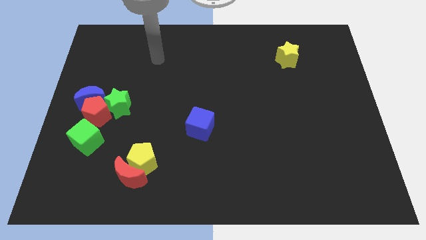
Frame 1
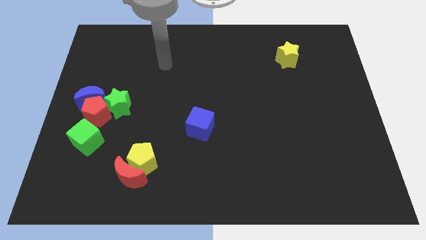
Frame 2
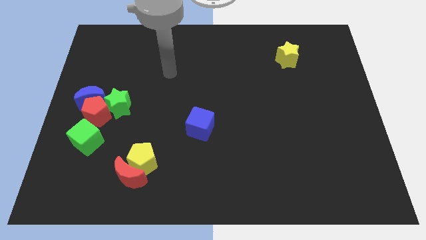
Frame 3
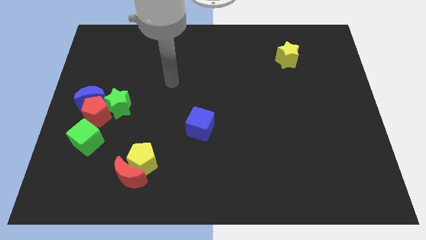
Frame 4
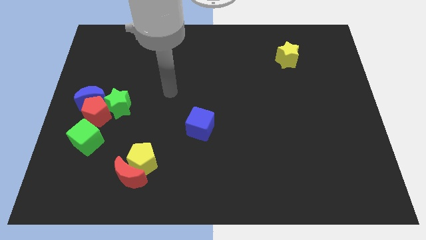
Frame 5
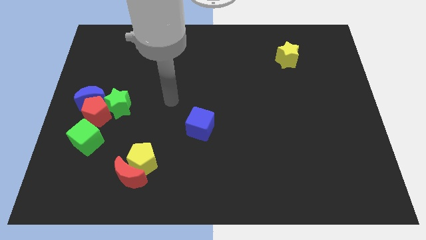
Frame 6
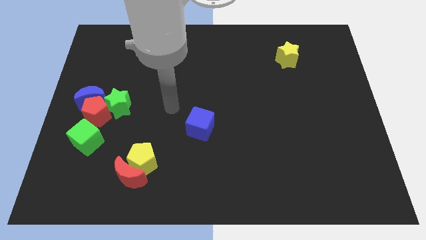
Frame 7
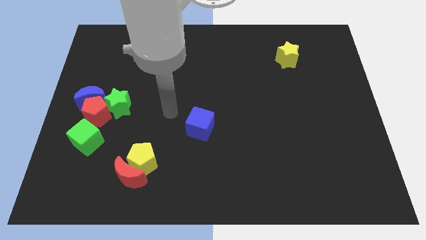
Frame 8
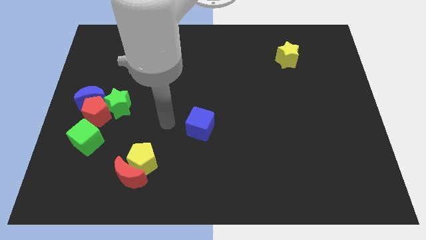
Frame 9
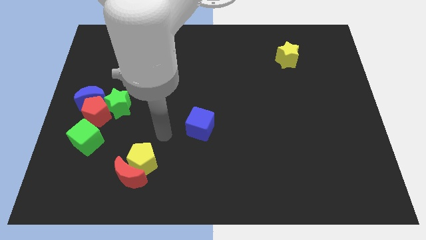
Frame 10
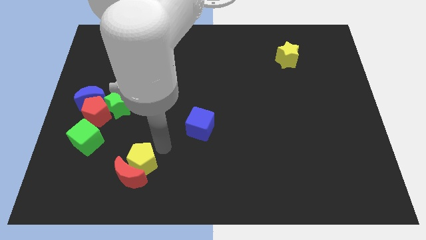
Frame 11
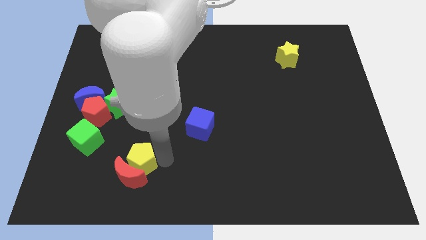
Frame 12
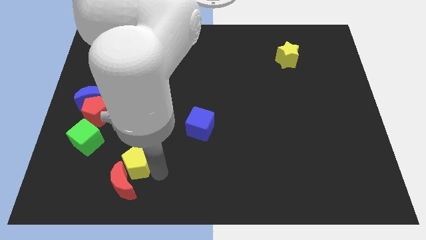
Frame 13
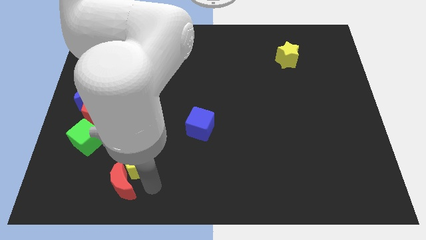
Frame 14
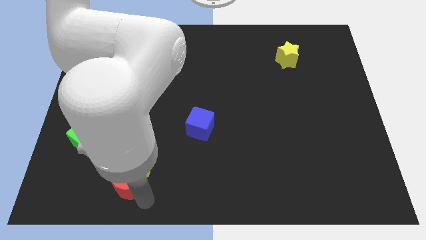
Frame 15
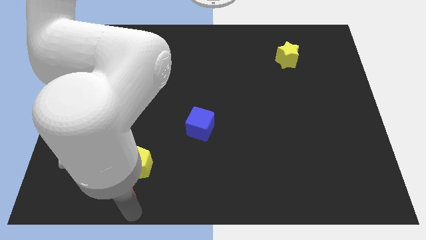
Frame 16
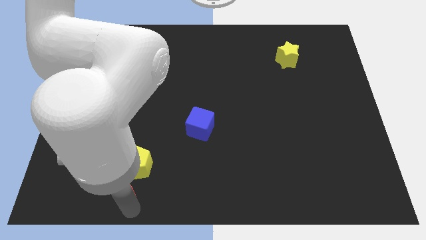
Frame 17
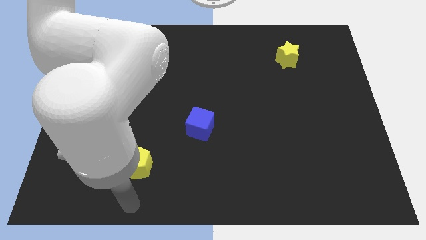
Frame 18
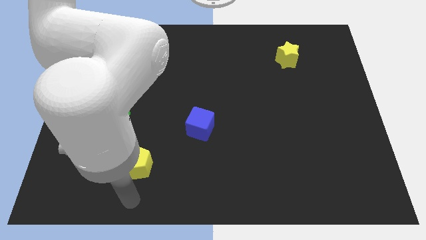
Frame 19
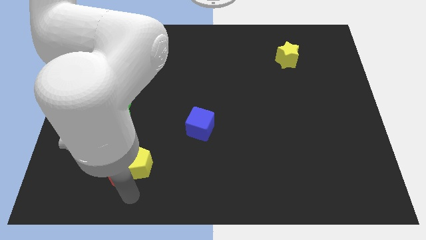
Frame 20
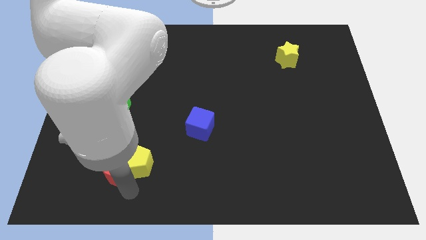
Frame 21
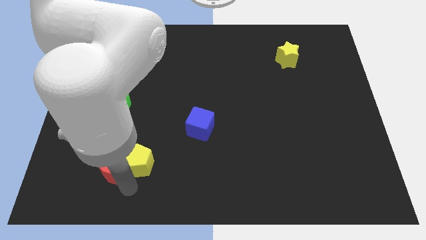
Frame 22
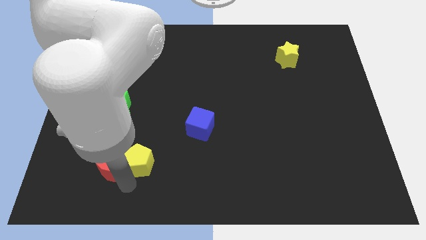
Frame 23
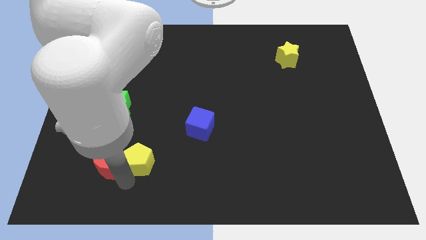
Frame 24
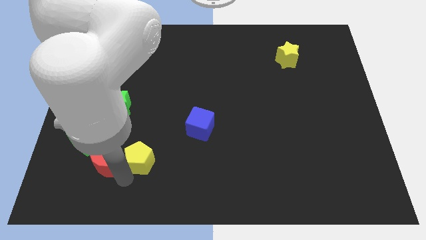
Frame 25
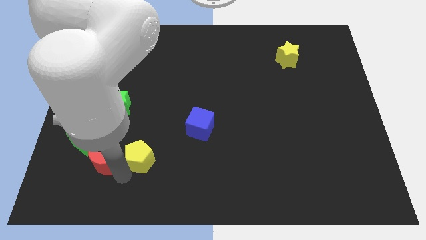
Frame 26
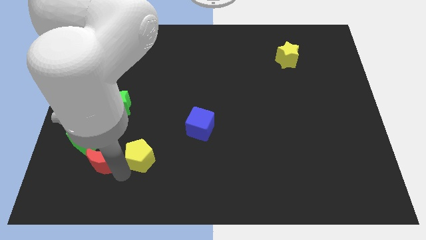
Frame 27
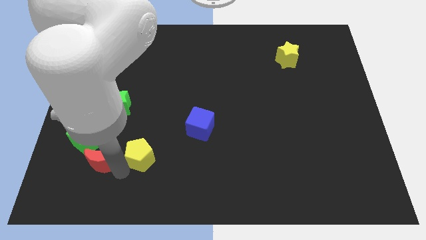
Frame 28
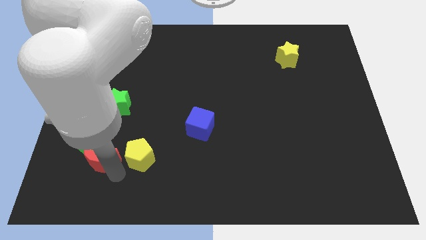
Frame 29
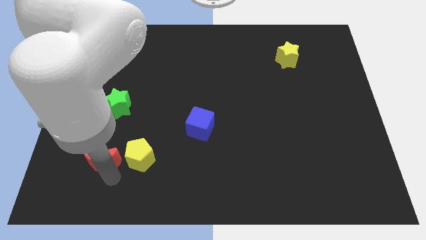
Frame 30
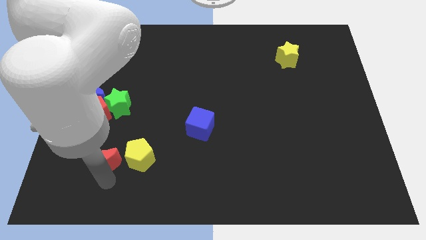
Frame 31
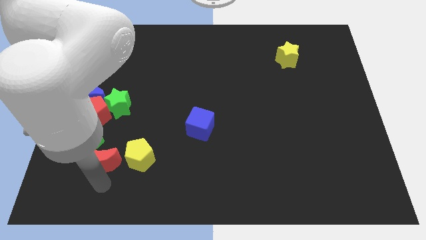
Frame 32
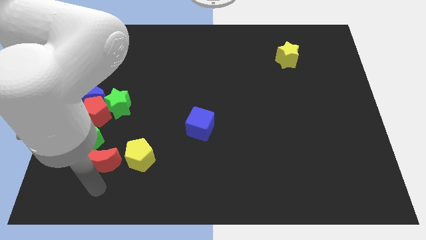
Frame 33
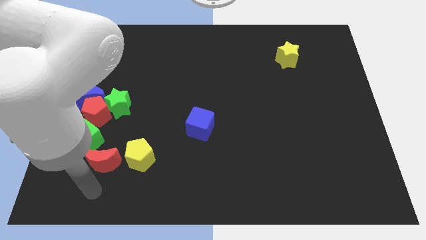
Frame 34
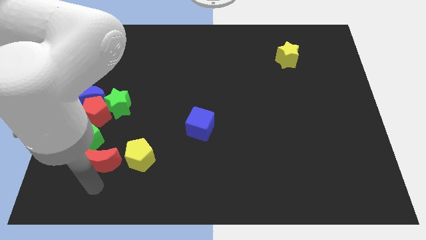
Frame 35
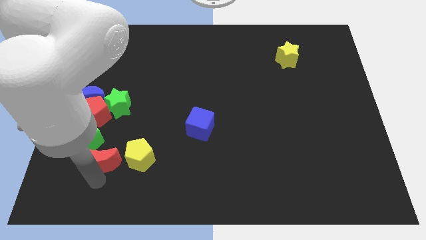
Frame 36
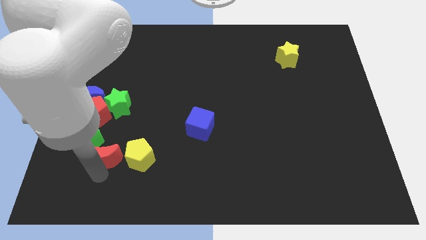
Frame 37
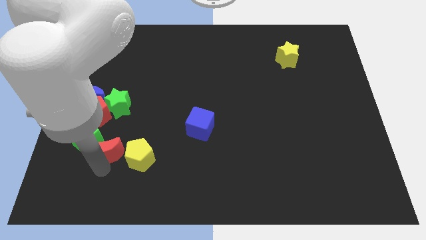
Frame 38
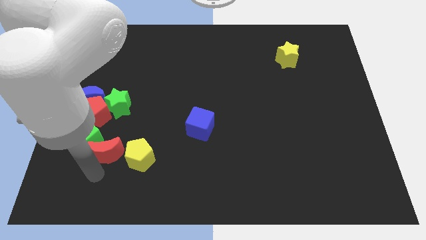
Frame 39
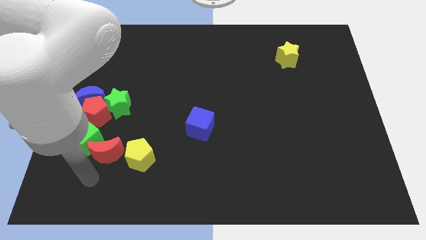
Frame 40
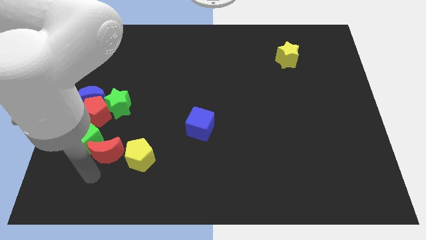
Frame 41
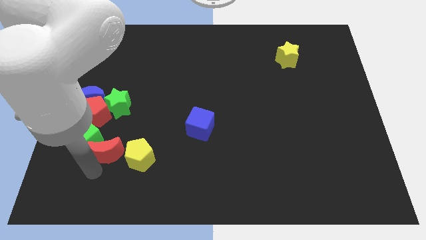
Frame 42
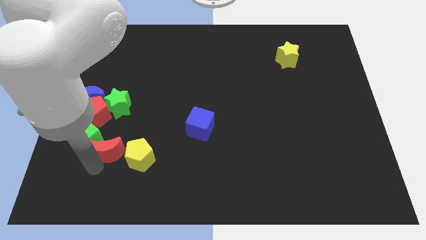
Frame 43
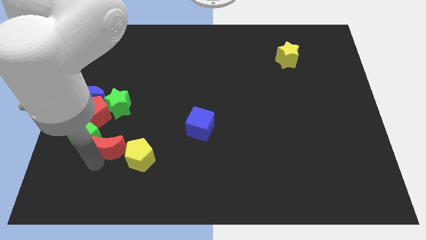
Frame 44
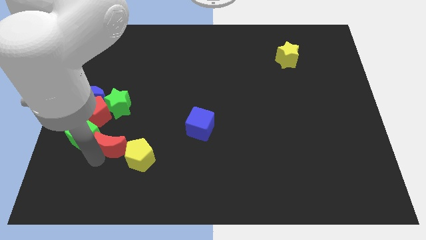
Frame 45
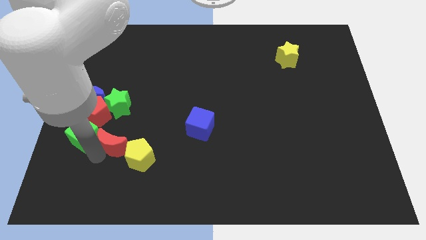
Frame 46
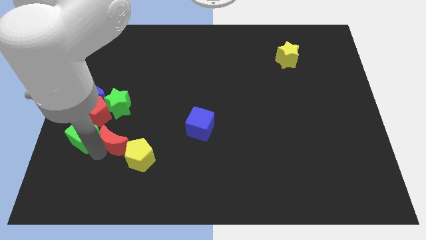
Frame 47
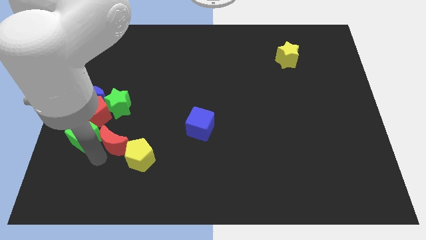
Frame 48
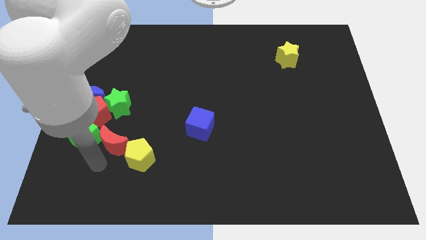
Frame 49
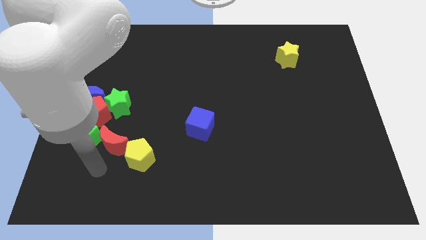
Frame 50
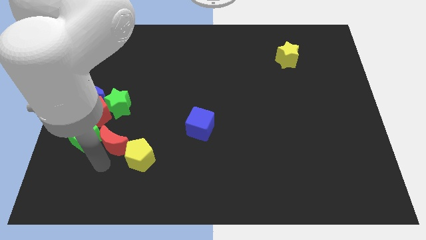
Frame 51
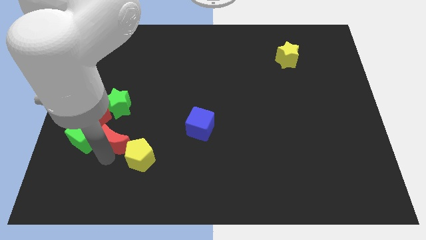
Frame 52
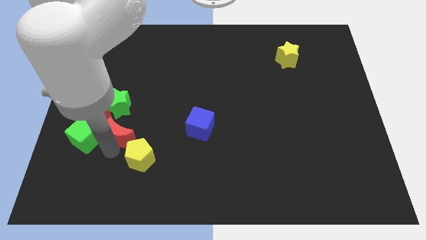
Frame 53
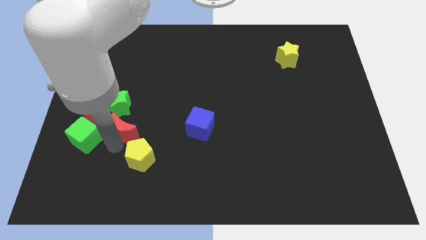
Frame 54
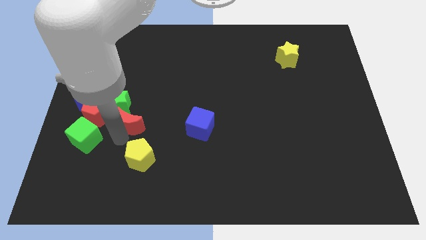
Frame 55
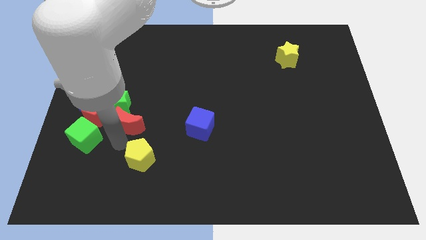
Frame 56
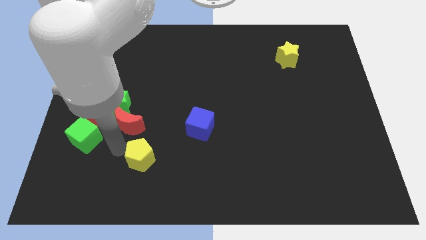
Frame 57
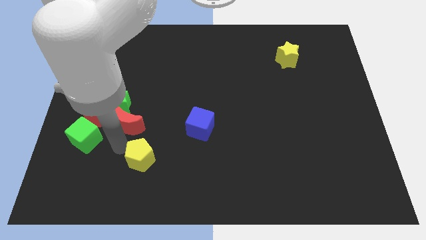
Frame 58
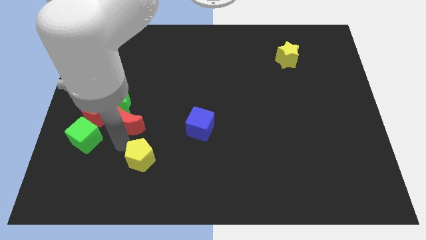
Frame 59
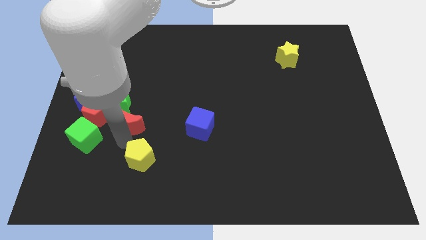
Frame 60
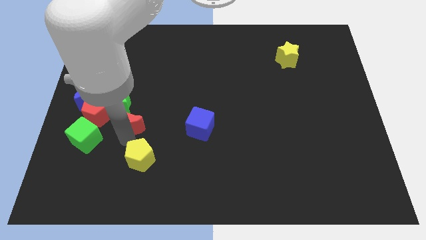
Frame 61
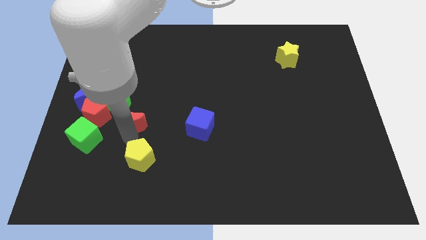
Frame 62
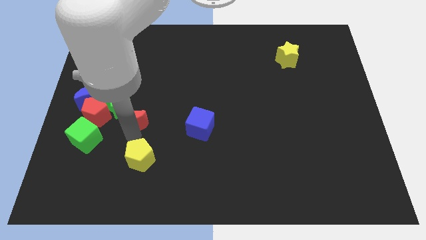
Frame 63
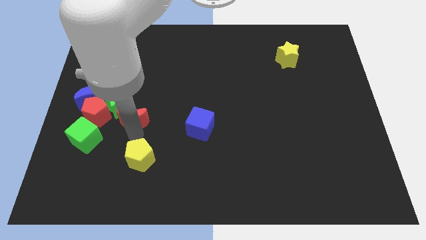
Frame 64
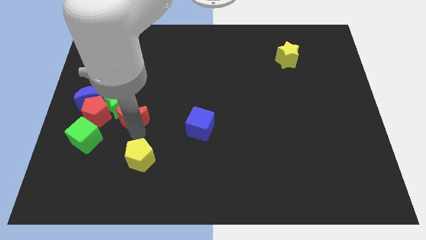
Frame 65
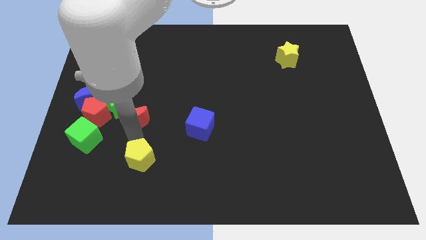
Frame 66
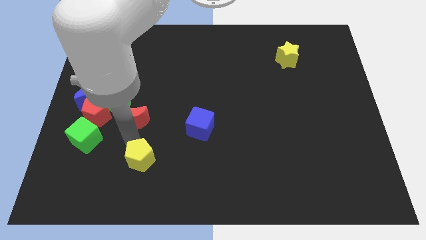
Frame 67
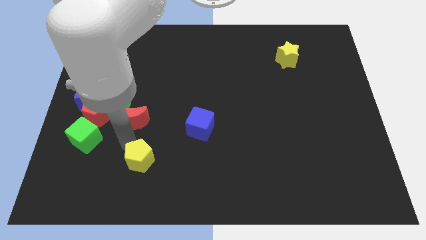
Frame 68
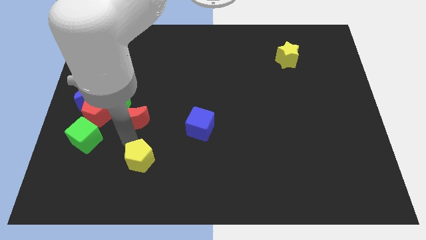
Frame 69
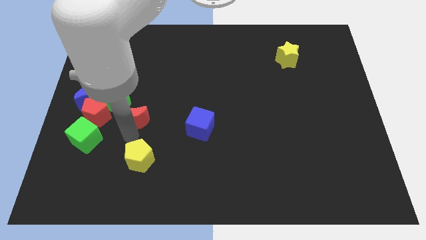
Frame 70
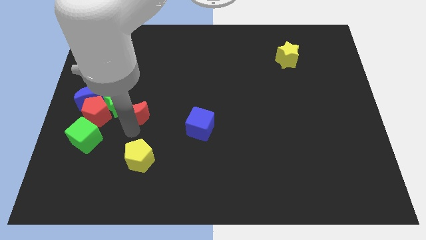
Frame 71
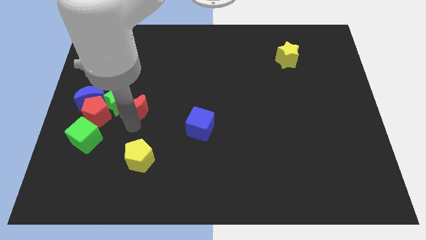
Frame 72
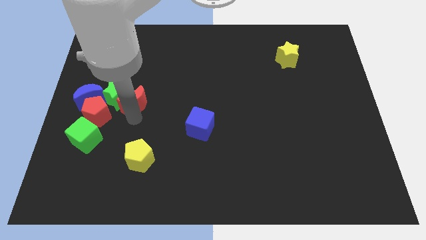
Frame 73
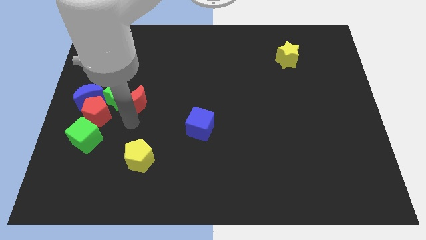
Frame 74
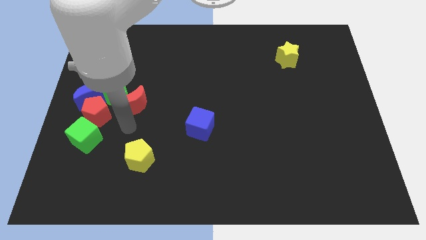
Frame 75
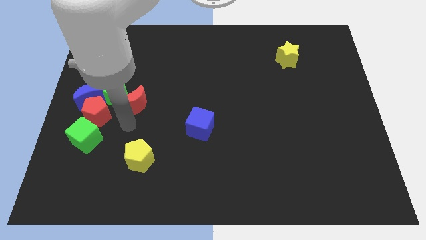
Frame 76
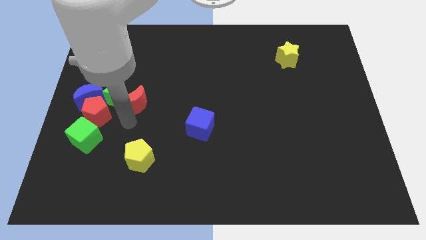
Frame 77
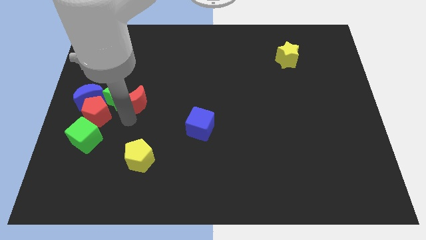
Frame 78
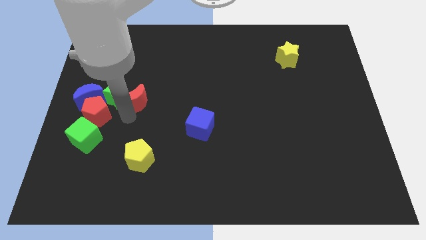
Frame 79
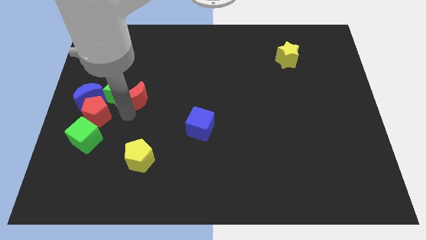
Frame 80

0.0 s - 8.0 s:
push the red moon upwards

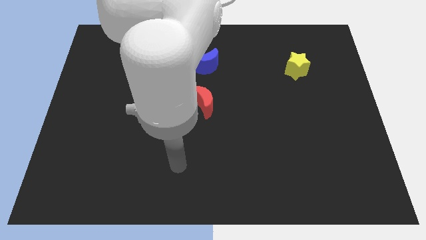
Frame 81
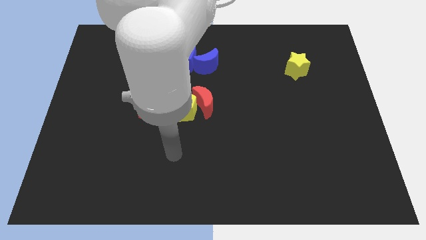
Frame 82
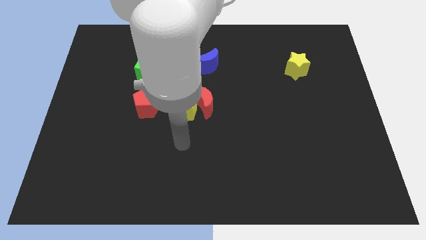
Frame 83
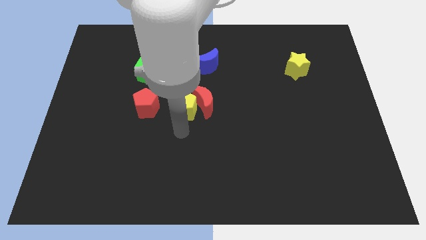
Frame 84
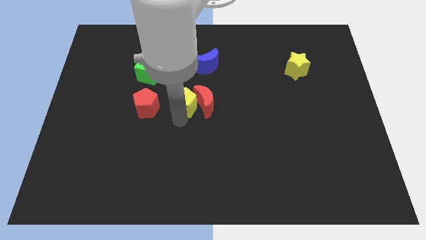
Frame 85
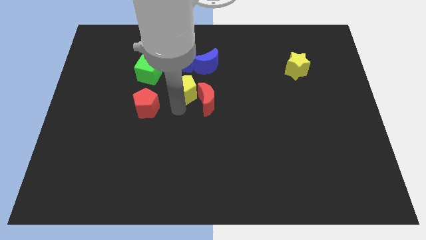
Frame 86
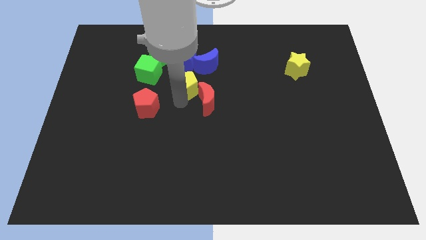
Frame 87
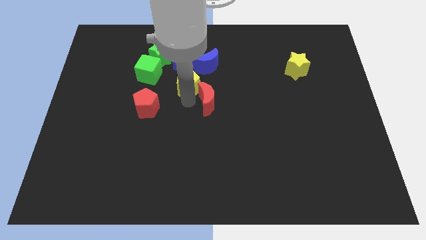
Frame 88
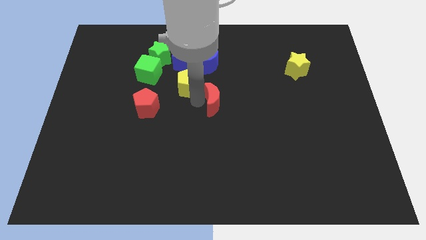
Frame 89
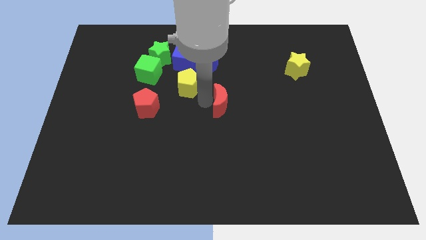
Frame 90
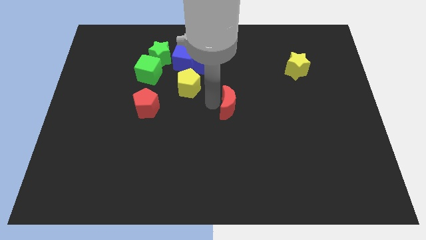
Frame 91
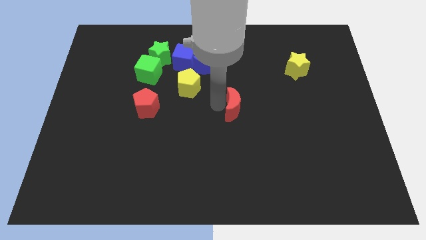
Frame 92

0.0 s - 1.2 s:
push the red moon somewhat to the right
